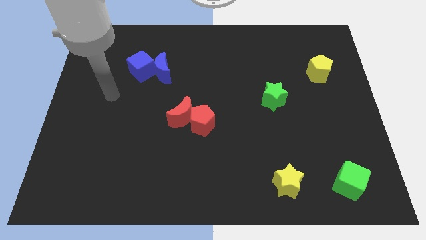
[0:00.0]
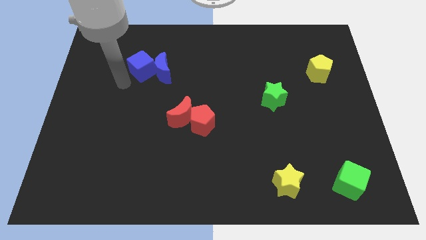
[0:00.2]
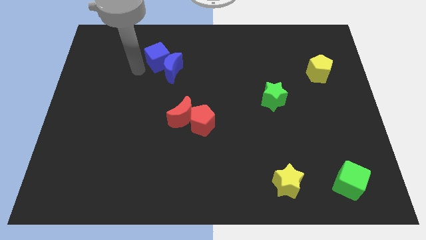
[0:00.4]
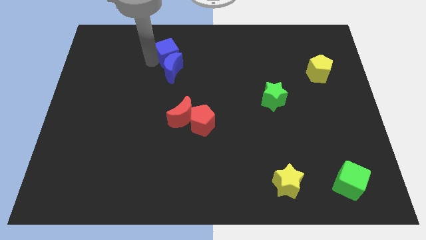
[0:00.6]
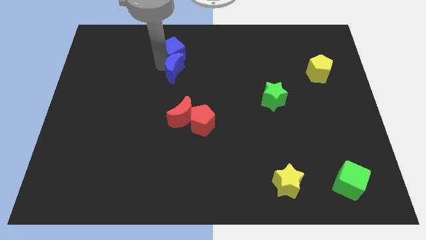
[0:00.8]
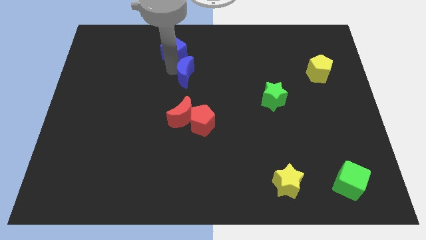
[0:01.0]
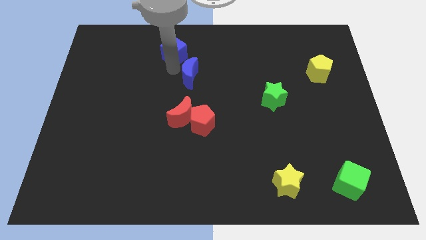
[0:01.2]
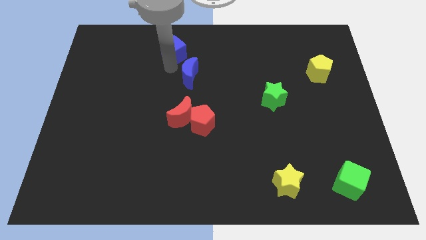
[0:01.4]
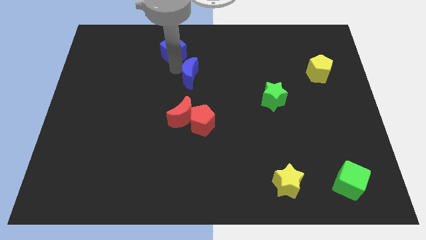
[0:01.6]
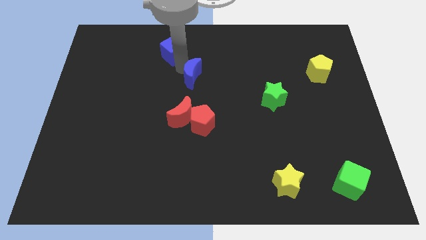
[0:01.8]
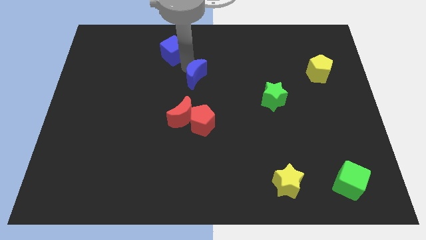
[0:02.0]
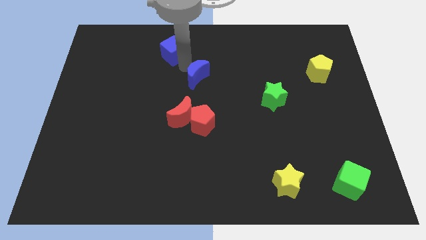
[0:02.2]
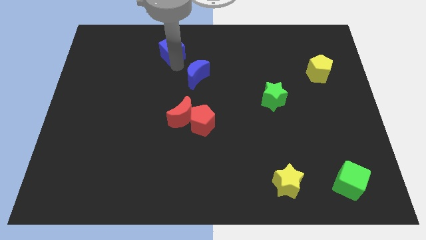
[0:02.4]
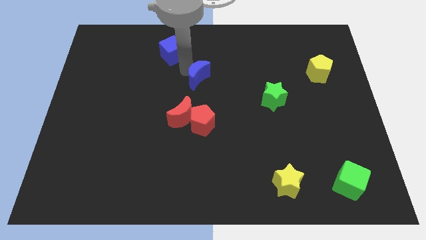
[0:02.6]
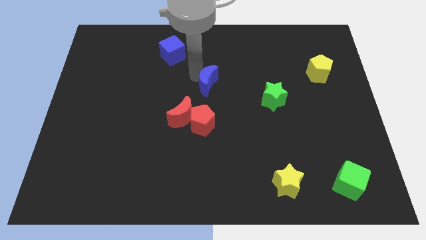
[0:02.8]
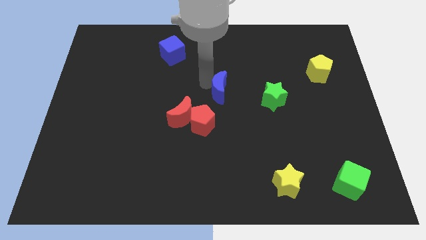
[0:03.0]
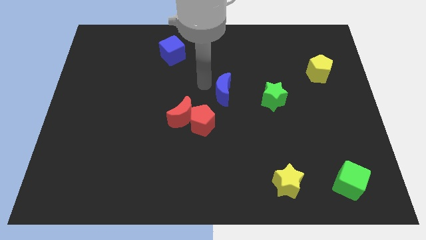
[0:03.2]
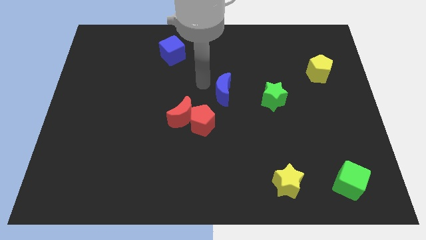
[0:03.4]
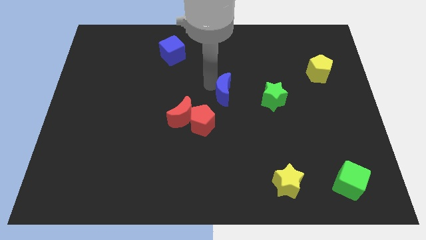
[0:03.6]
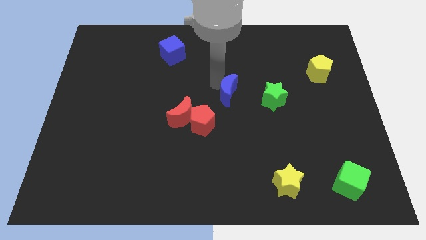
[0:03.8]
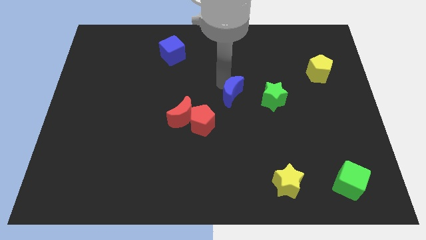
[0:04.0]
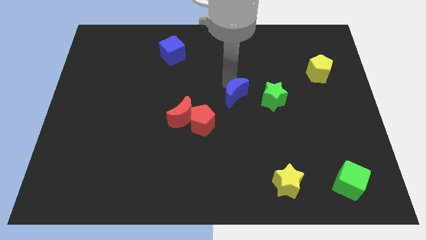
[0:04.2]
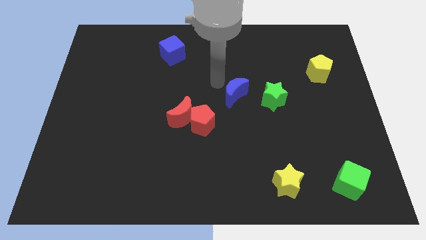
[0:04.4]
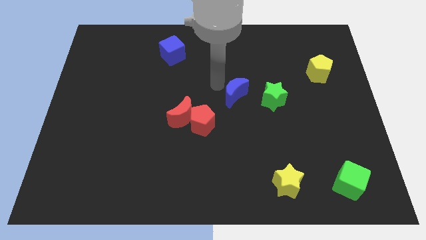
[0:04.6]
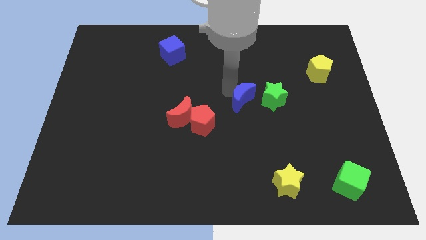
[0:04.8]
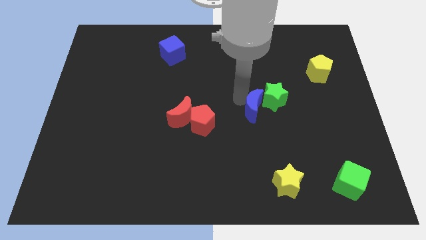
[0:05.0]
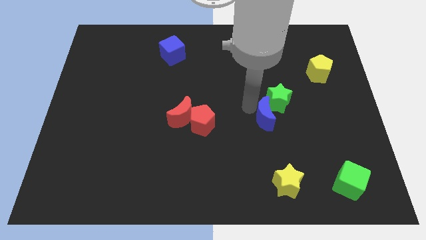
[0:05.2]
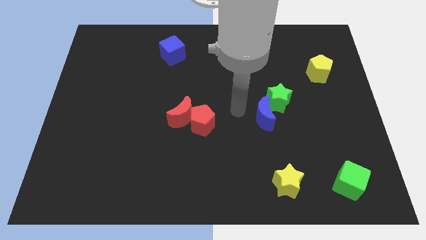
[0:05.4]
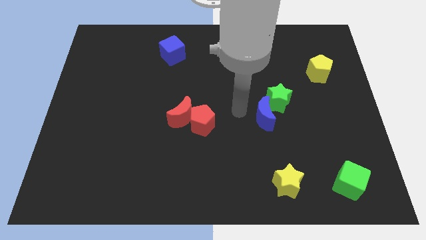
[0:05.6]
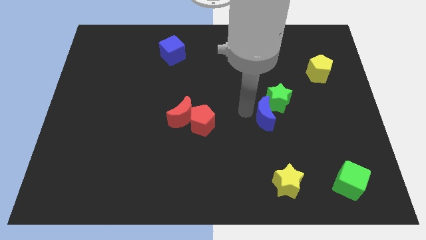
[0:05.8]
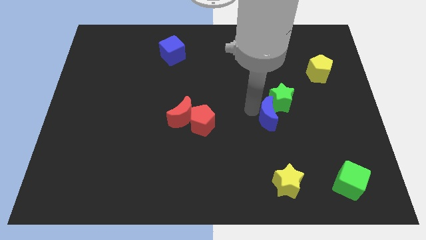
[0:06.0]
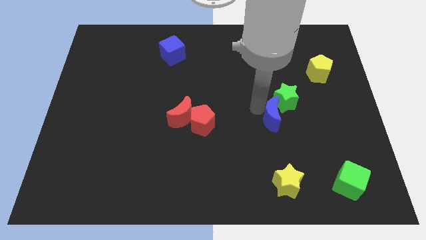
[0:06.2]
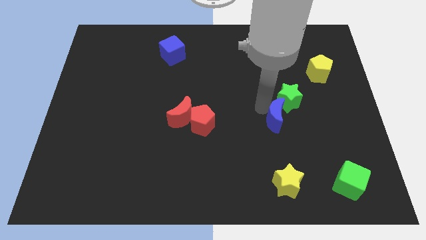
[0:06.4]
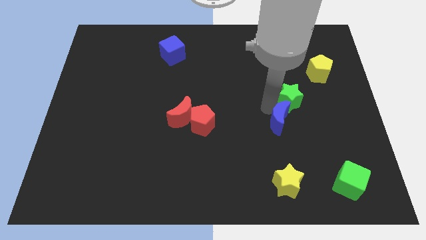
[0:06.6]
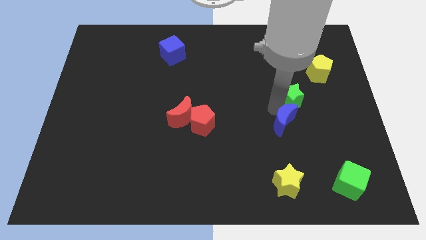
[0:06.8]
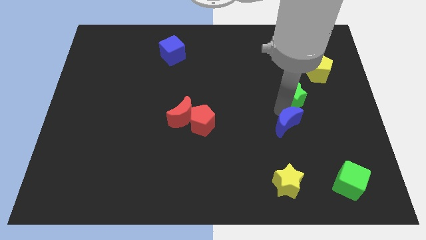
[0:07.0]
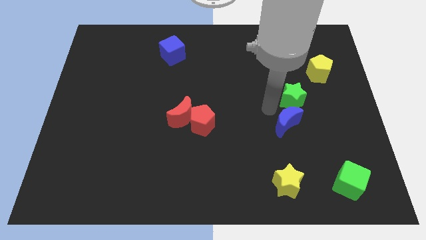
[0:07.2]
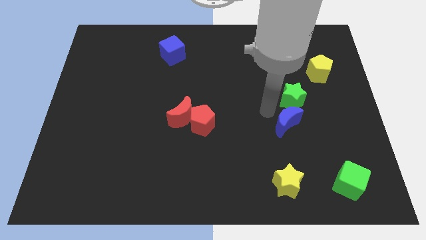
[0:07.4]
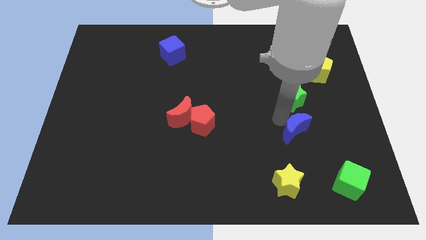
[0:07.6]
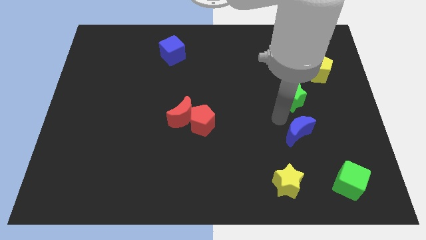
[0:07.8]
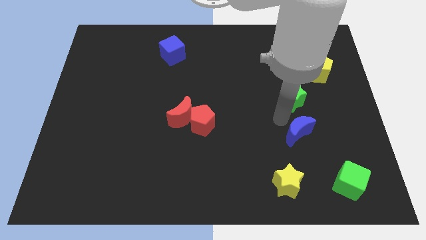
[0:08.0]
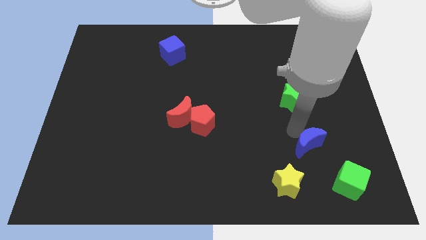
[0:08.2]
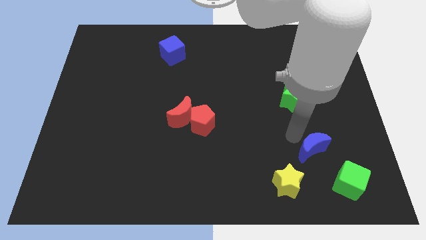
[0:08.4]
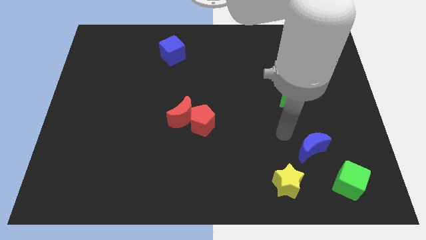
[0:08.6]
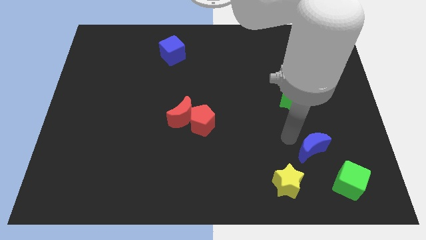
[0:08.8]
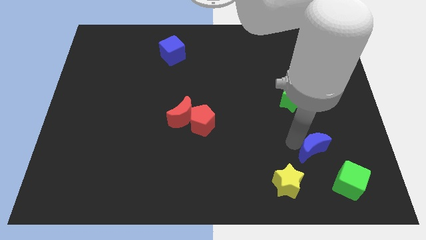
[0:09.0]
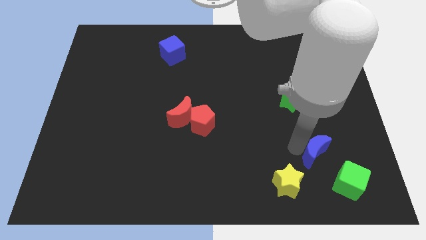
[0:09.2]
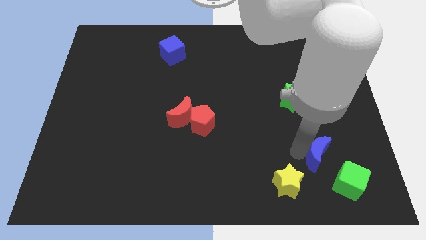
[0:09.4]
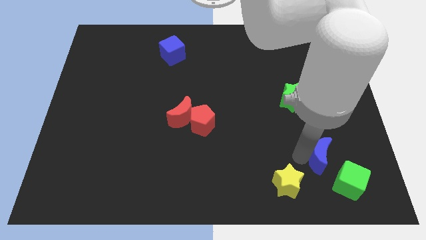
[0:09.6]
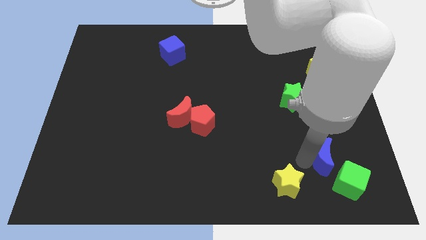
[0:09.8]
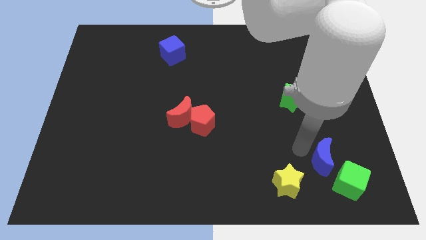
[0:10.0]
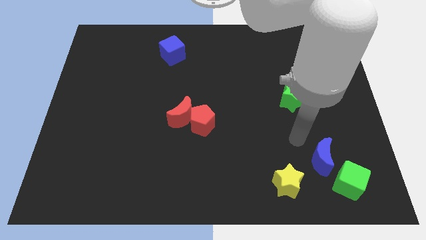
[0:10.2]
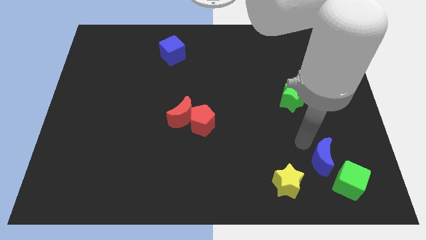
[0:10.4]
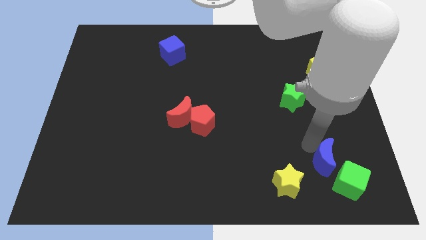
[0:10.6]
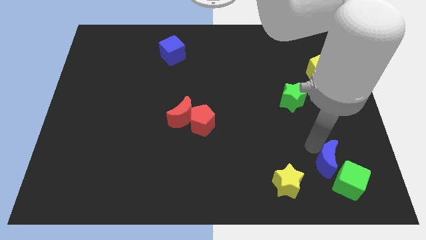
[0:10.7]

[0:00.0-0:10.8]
slide the blue moon next to the green cube

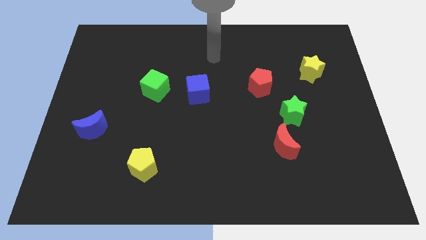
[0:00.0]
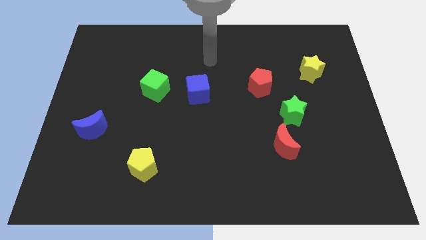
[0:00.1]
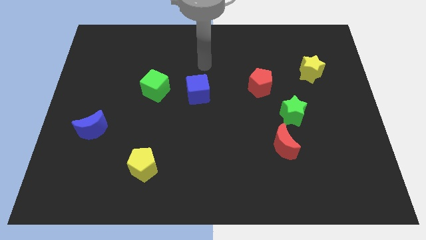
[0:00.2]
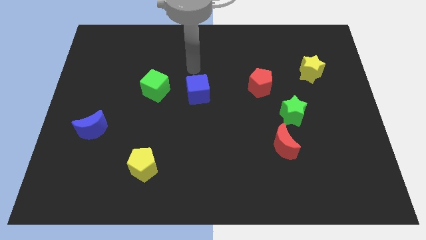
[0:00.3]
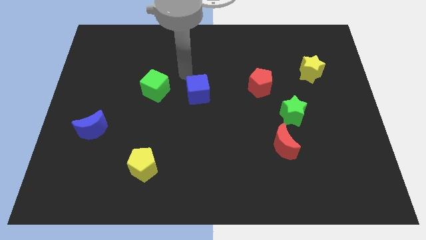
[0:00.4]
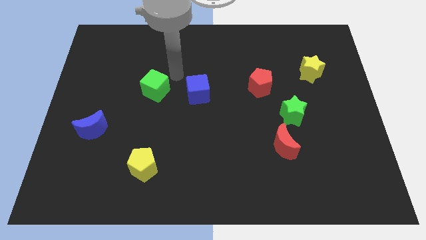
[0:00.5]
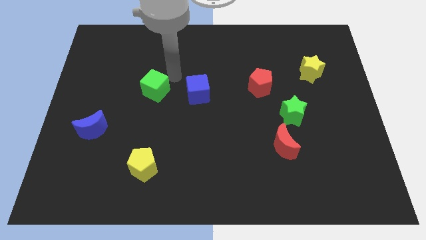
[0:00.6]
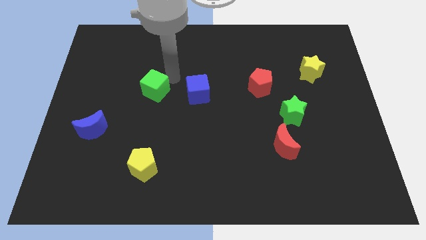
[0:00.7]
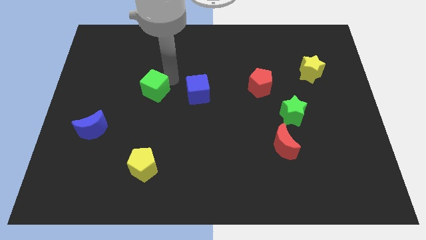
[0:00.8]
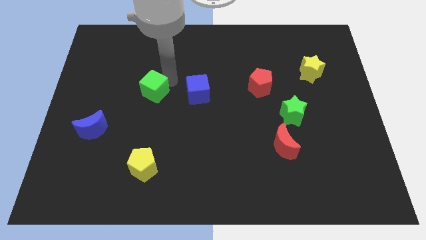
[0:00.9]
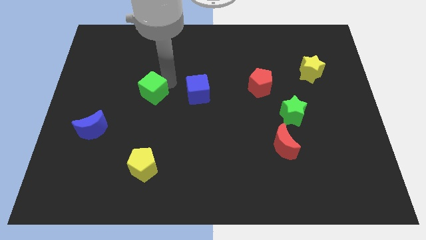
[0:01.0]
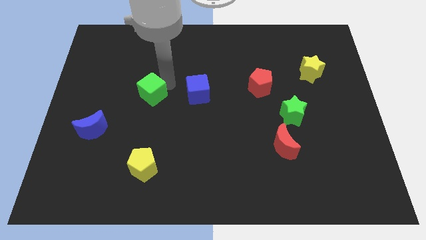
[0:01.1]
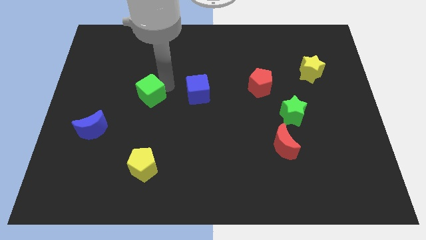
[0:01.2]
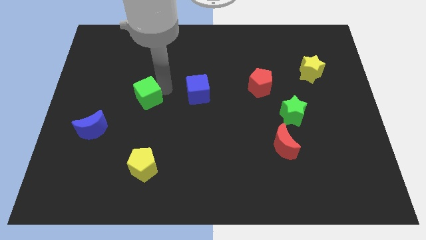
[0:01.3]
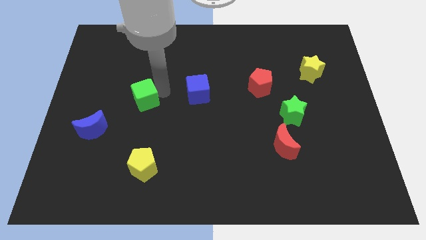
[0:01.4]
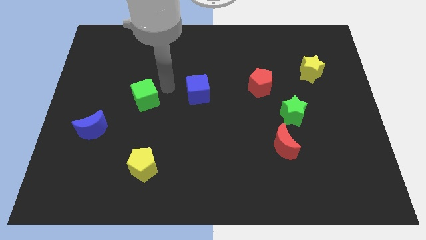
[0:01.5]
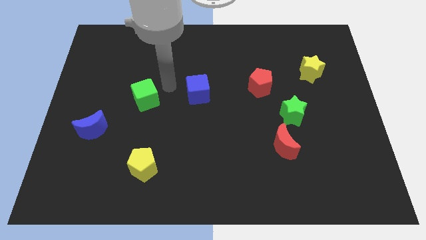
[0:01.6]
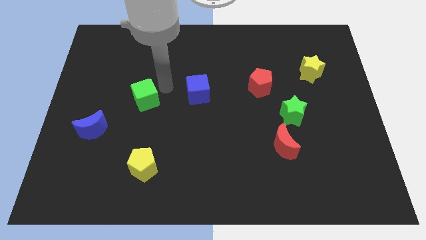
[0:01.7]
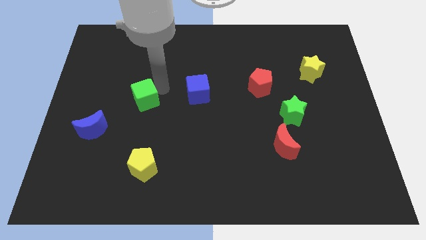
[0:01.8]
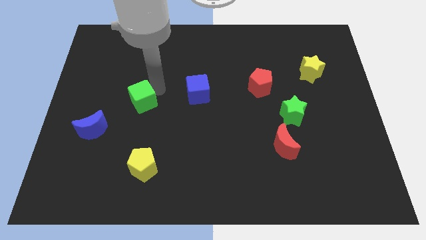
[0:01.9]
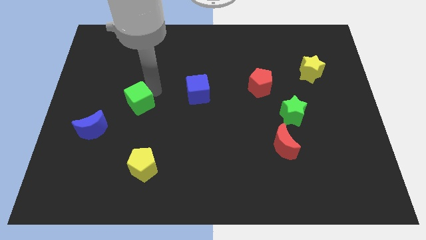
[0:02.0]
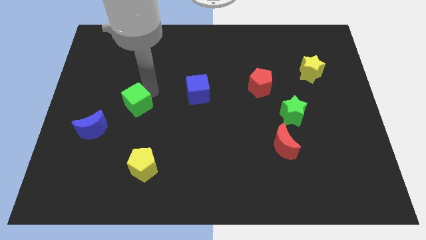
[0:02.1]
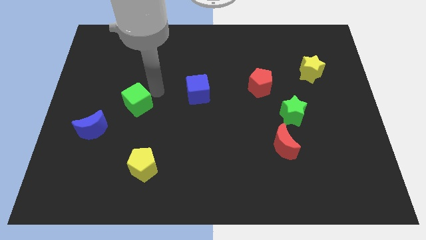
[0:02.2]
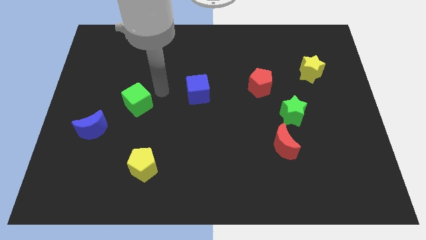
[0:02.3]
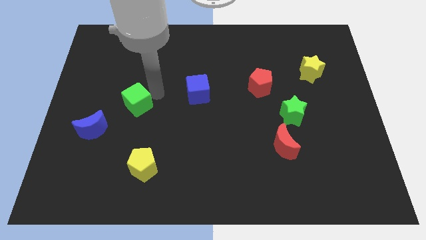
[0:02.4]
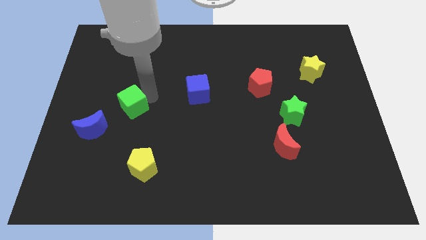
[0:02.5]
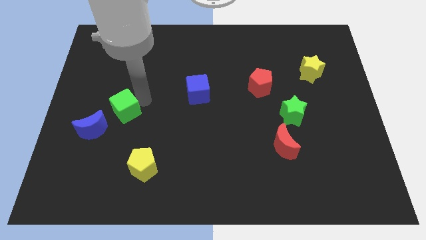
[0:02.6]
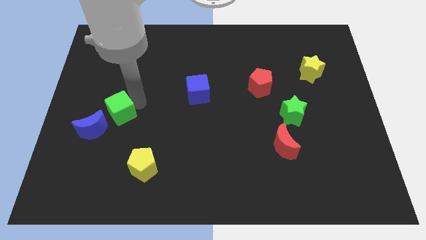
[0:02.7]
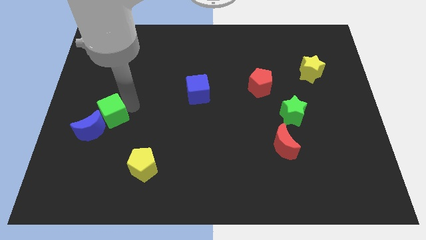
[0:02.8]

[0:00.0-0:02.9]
put the green cube next to the blue moon
